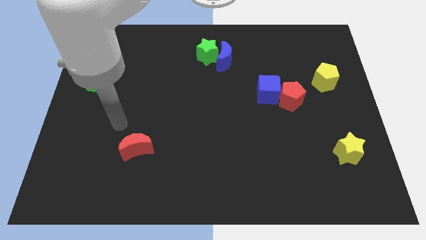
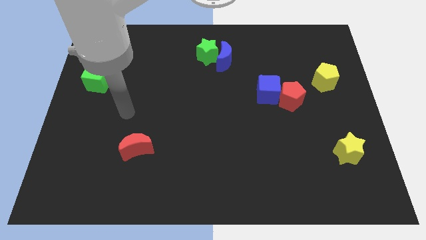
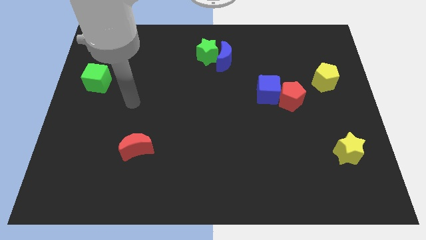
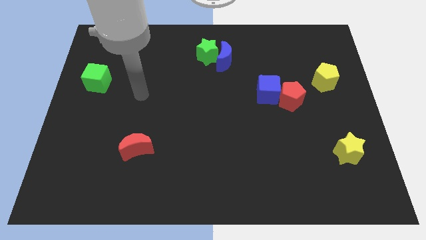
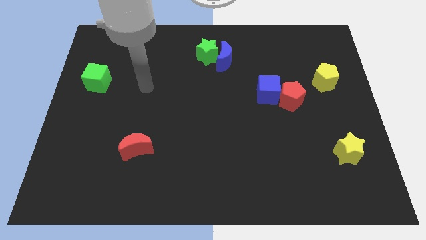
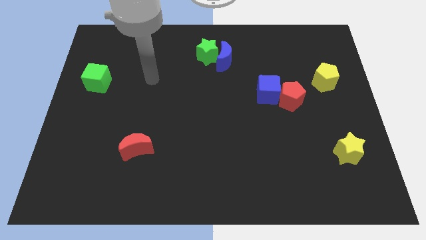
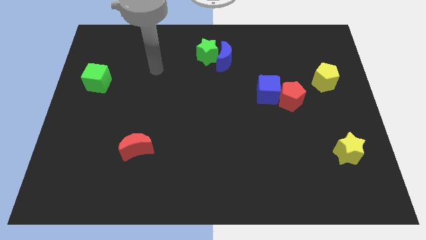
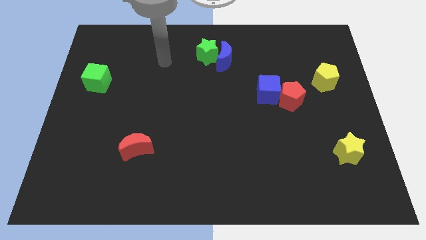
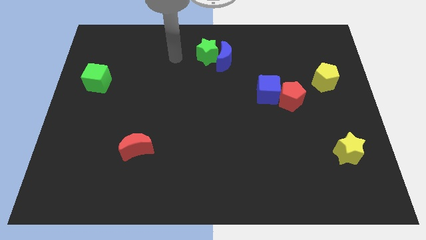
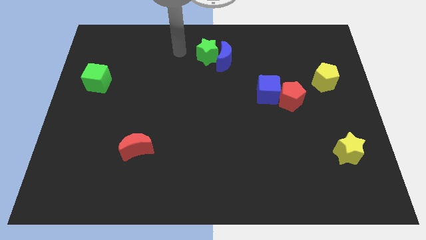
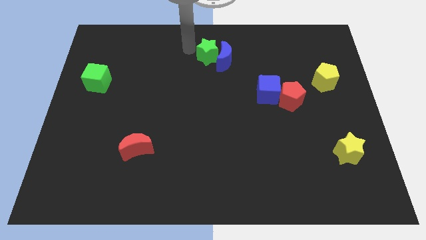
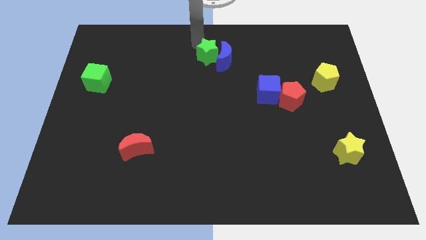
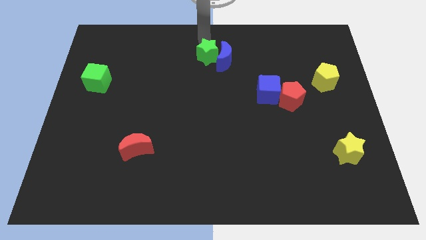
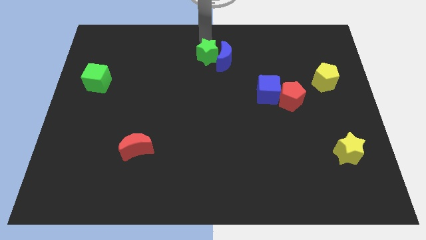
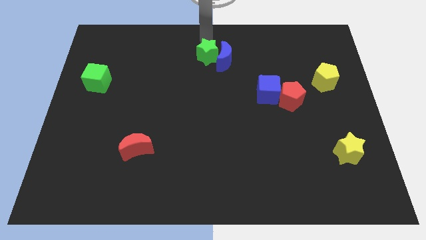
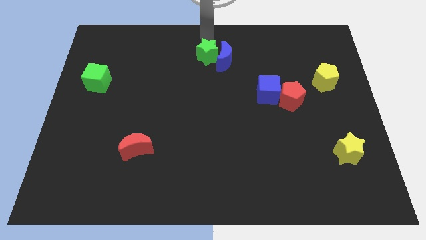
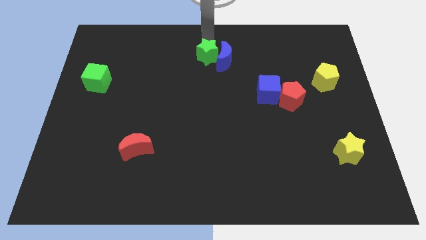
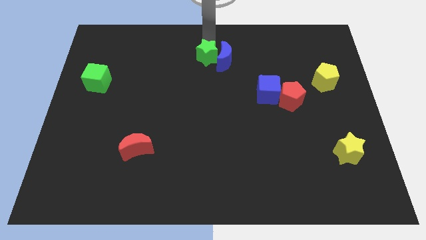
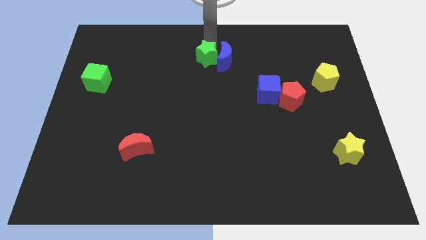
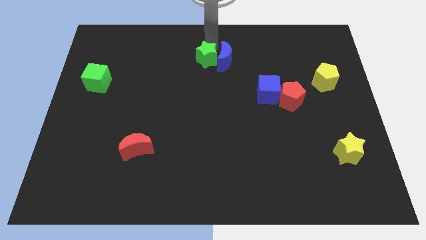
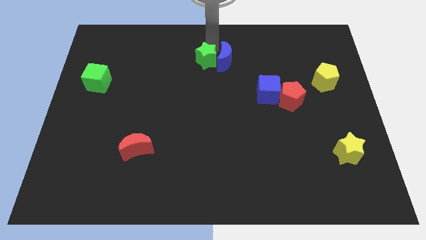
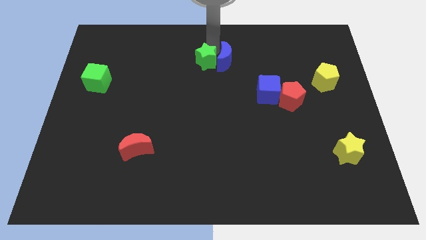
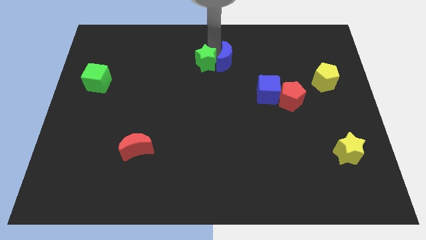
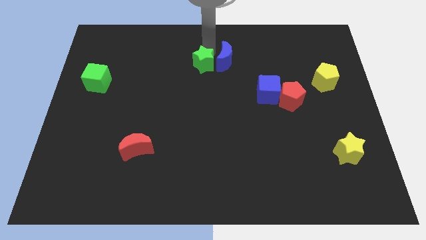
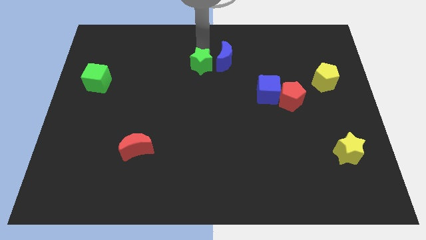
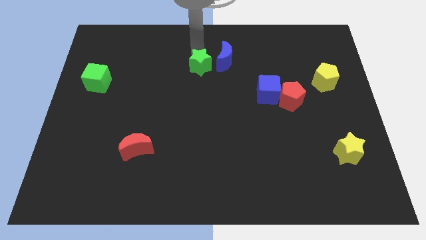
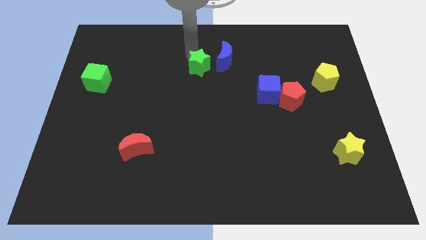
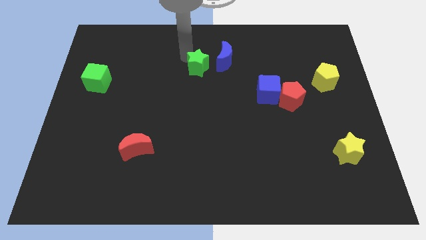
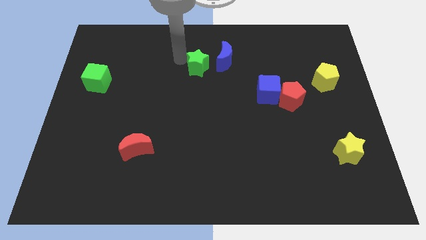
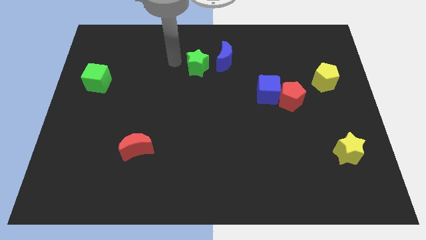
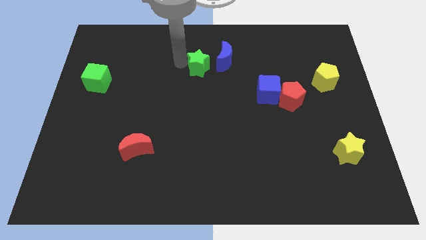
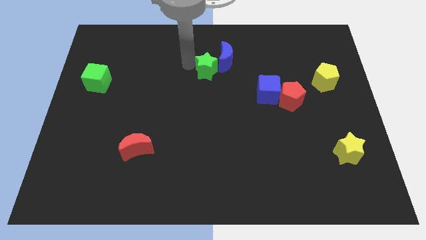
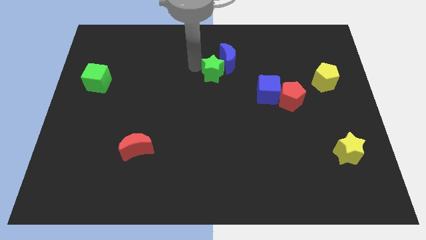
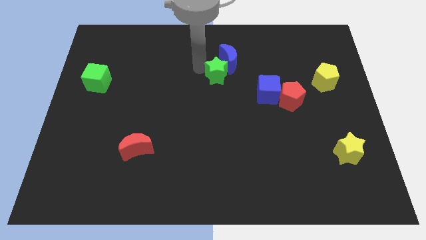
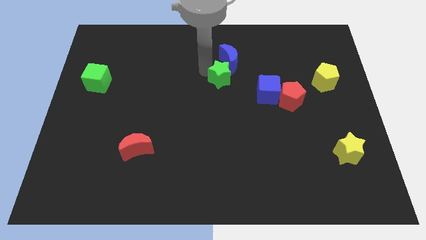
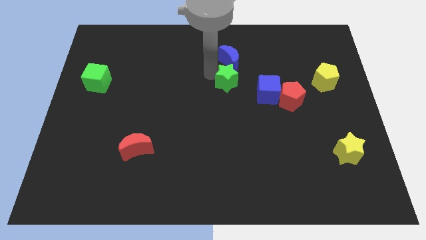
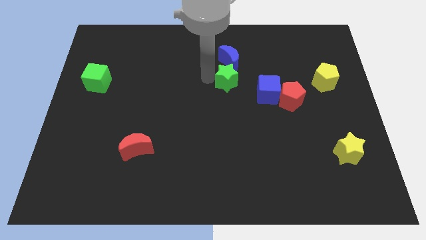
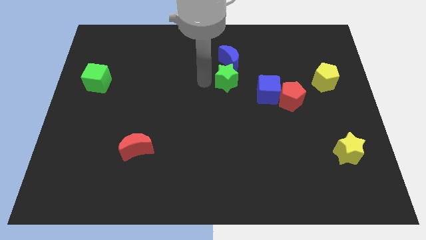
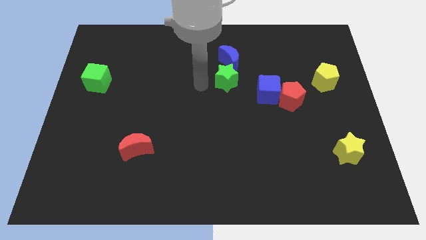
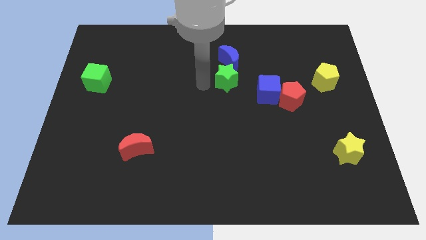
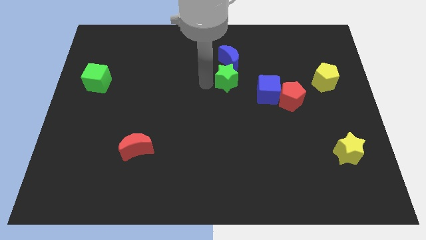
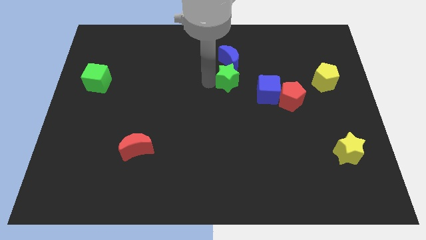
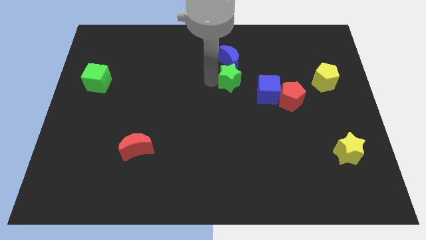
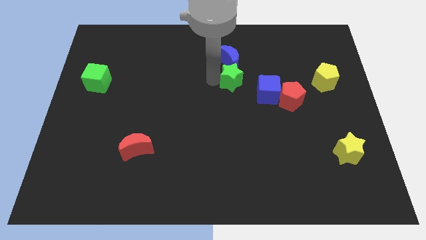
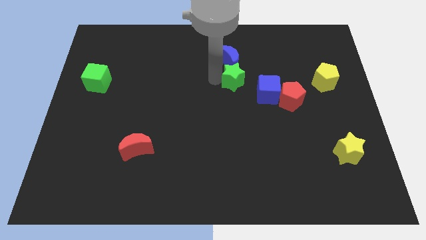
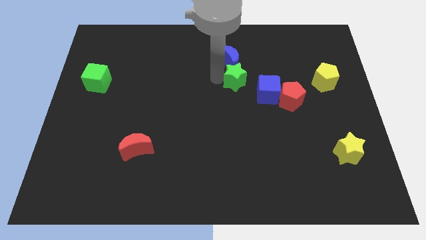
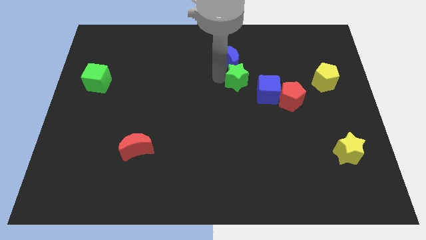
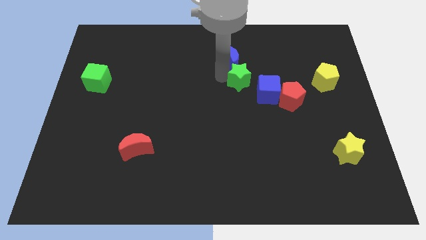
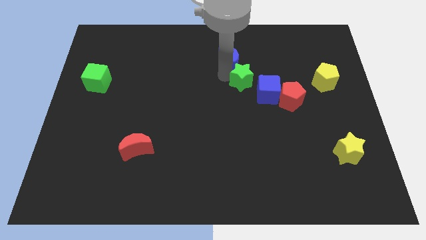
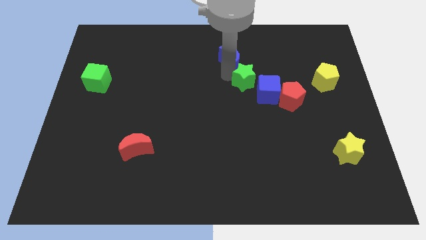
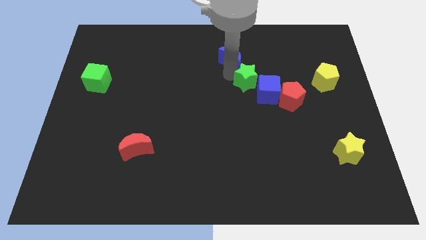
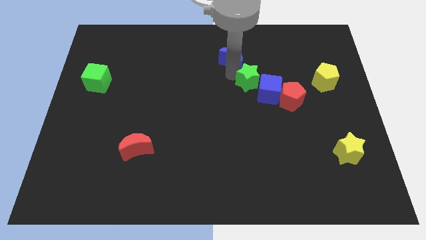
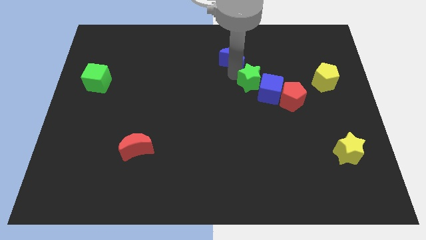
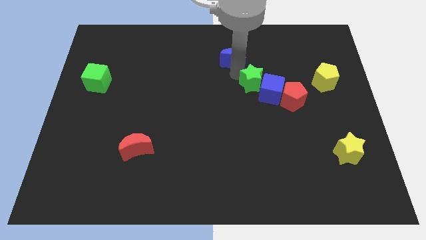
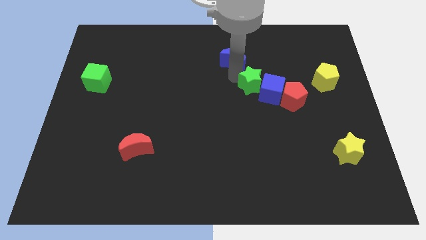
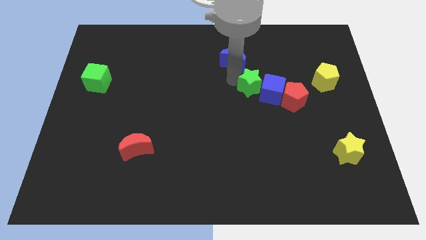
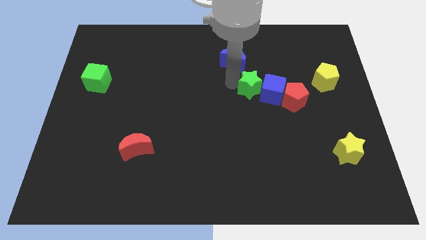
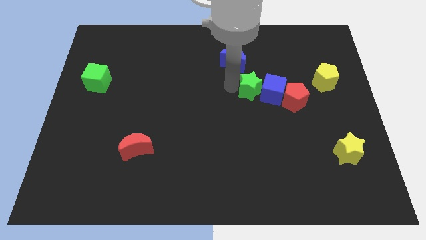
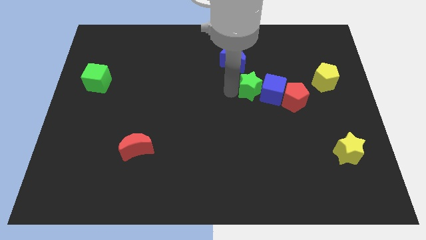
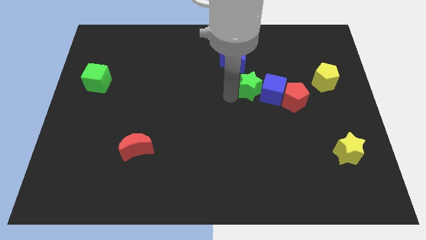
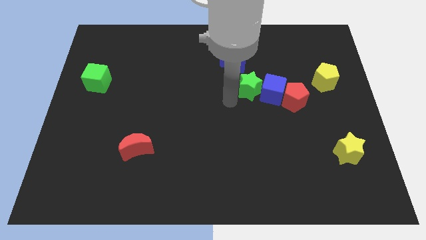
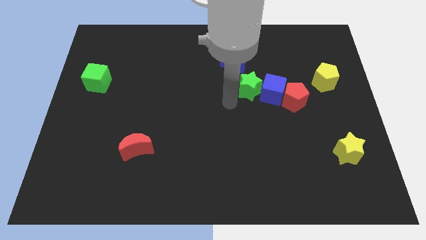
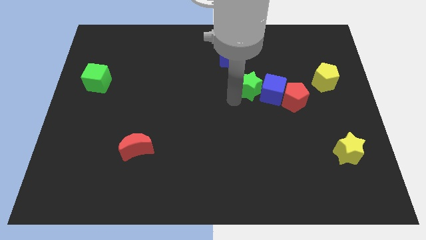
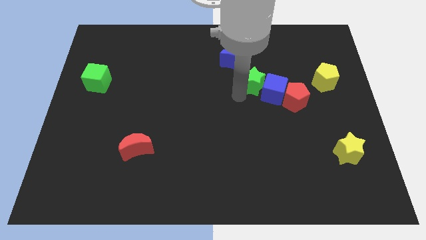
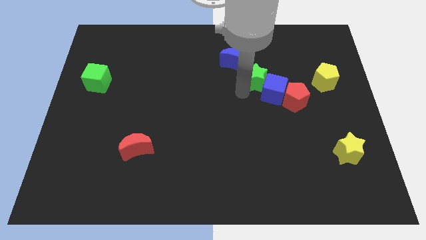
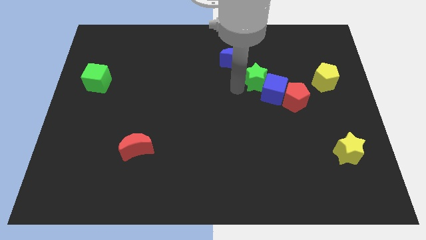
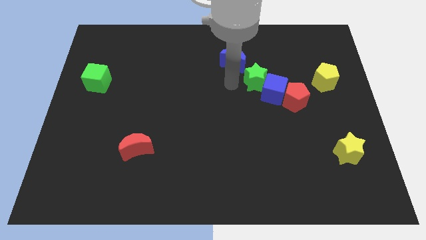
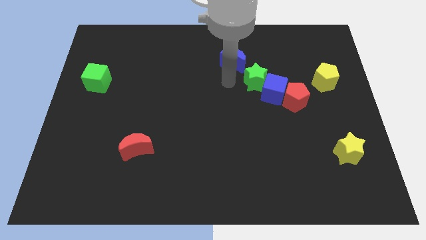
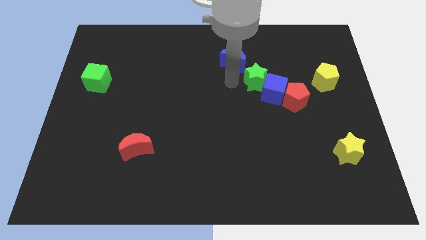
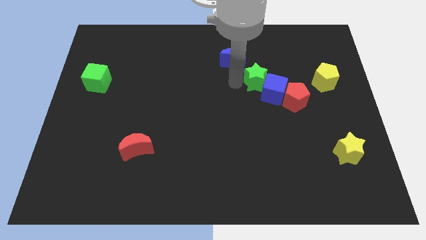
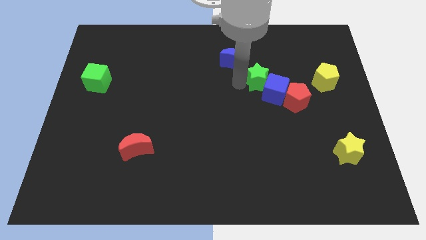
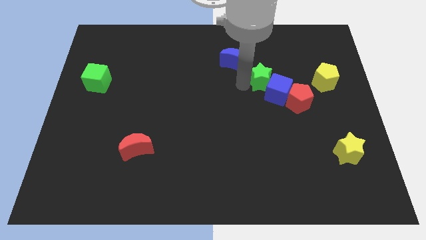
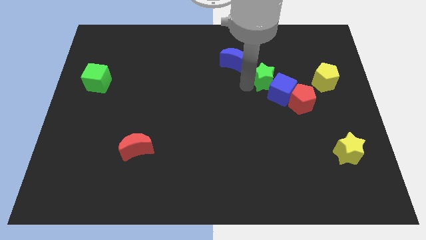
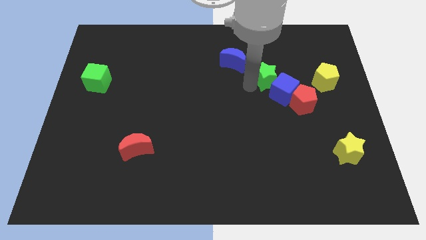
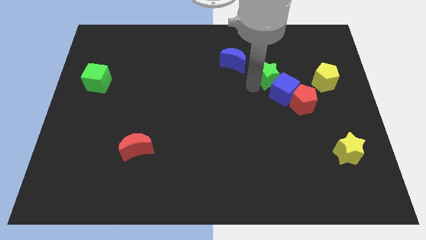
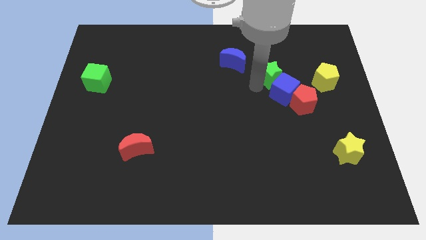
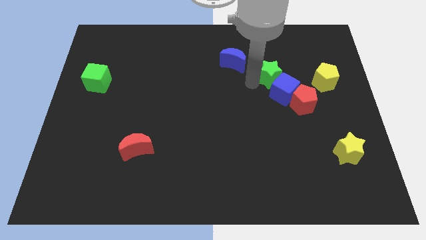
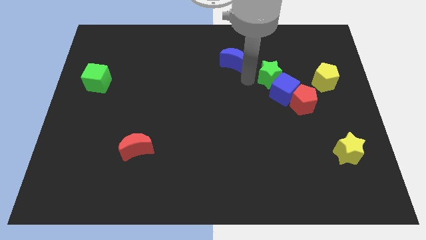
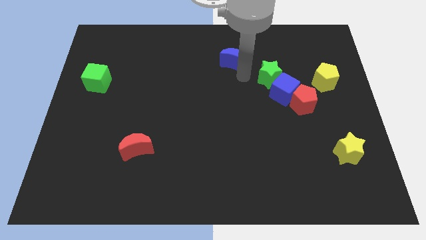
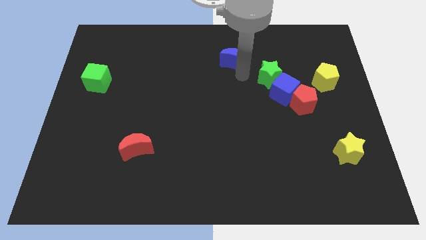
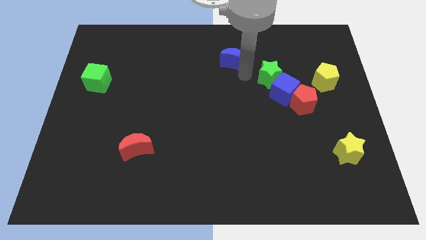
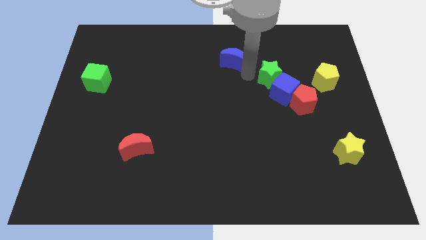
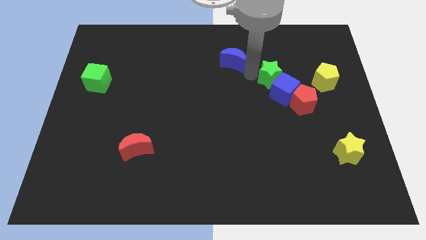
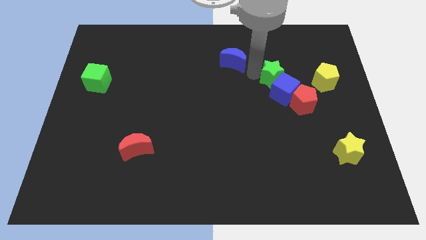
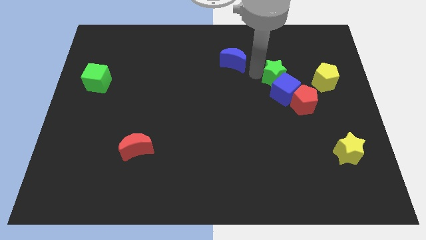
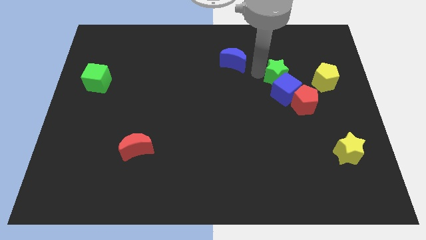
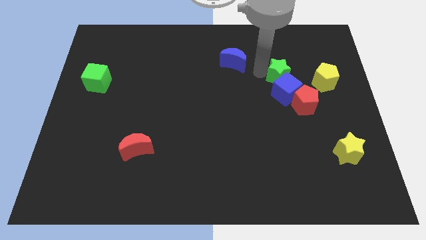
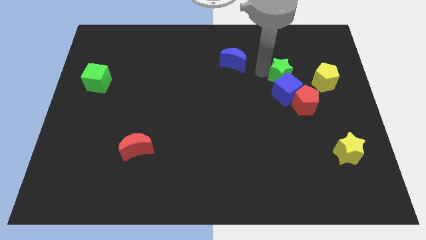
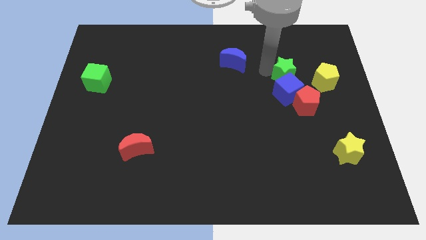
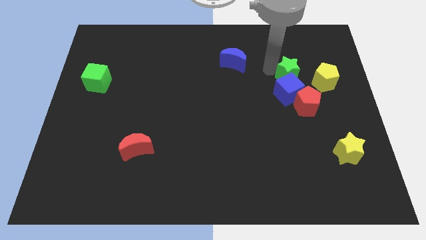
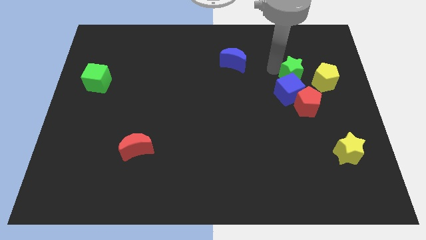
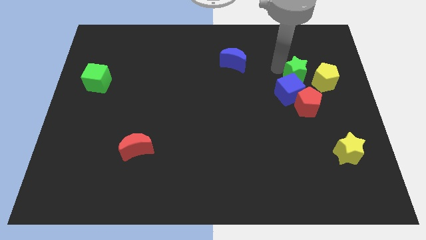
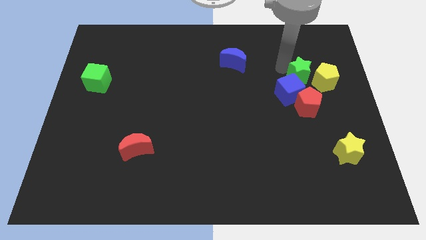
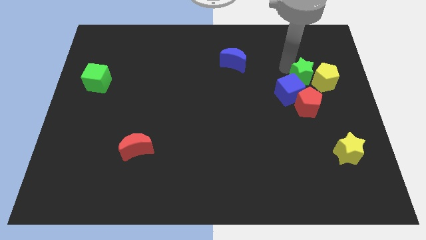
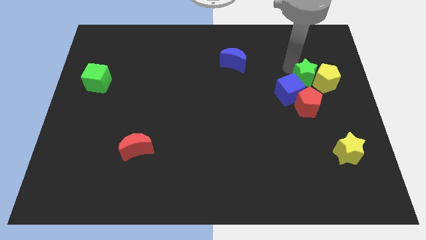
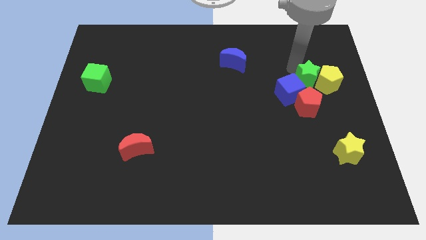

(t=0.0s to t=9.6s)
slide the green star right of the blue cube
